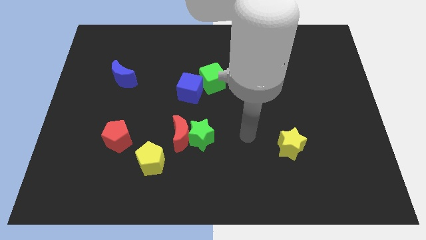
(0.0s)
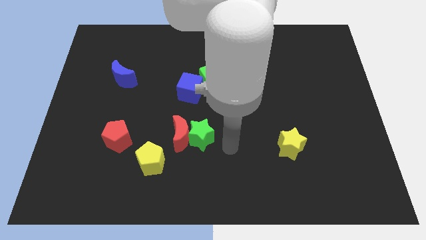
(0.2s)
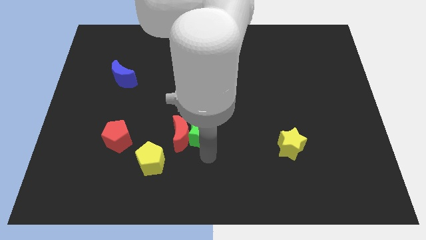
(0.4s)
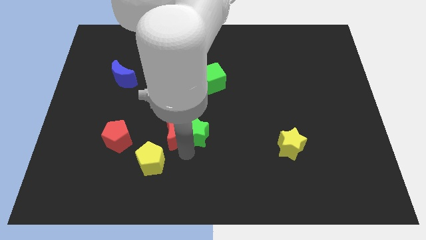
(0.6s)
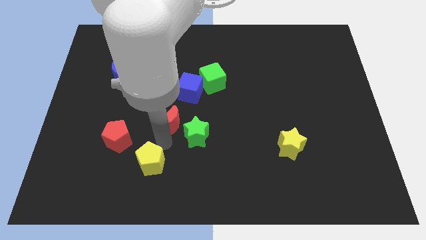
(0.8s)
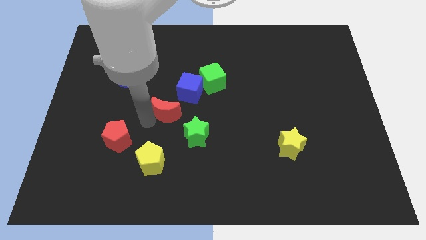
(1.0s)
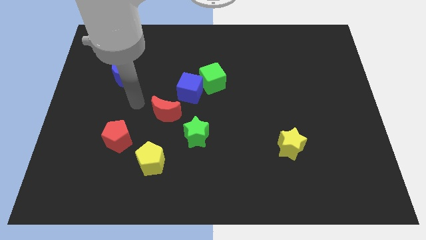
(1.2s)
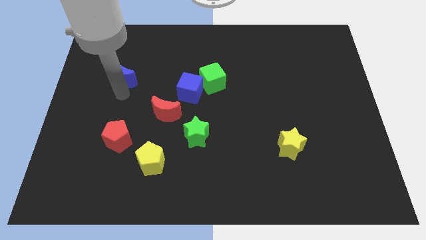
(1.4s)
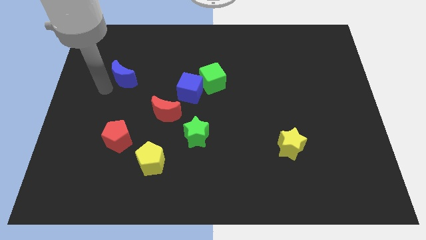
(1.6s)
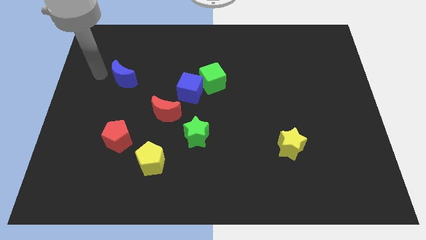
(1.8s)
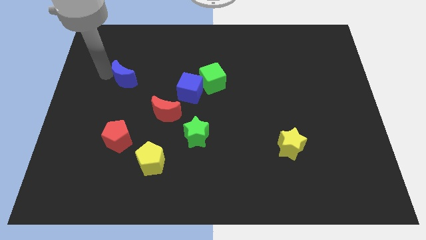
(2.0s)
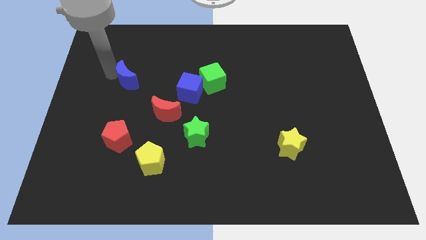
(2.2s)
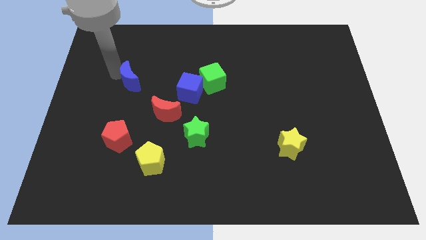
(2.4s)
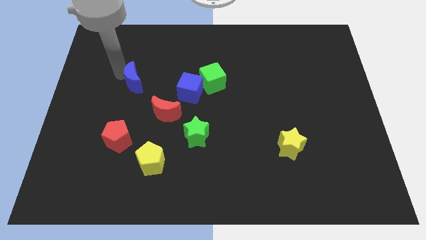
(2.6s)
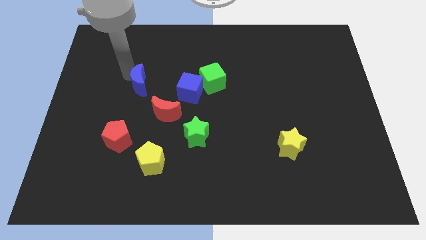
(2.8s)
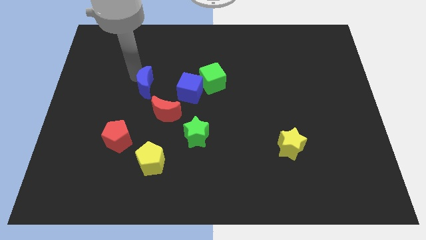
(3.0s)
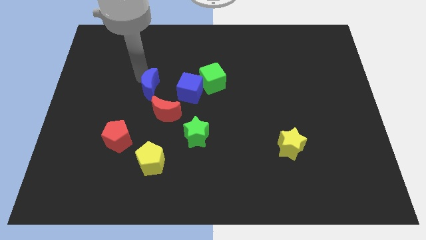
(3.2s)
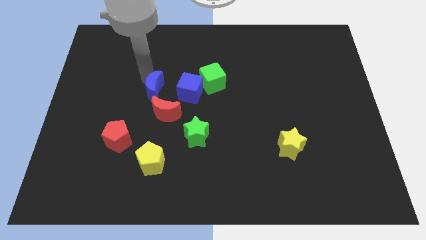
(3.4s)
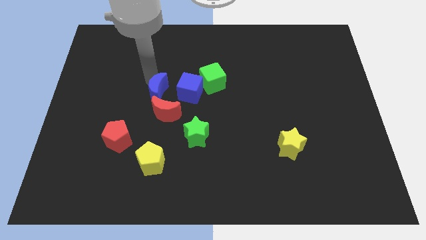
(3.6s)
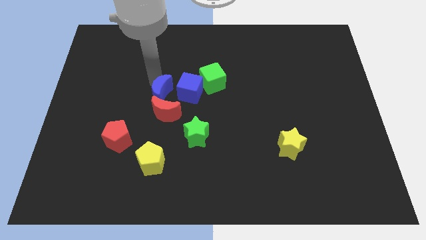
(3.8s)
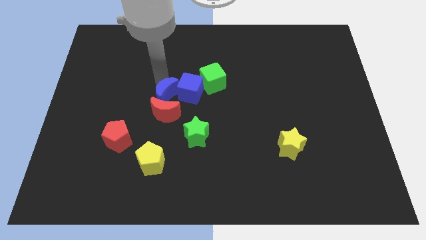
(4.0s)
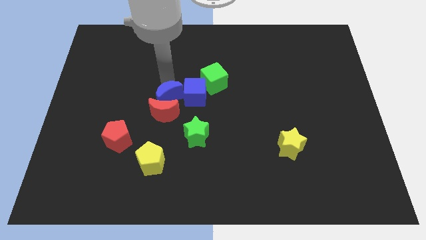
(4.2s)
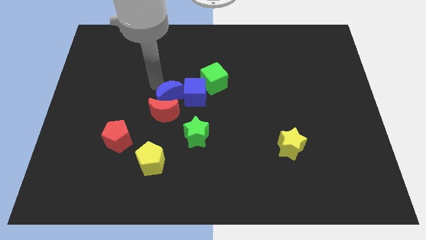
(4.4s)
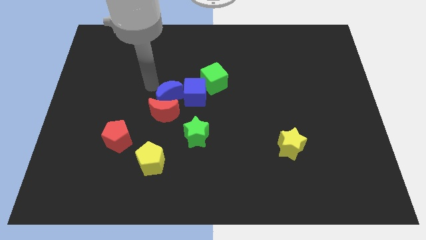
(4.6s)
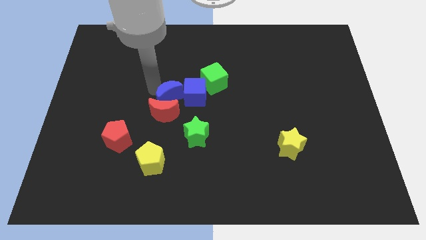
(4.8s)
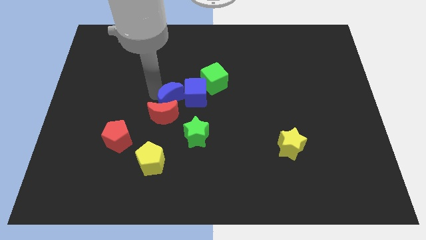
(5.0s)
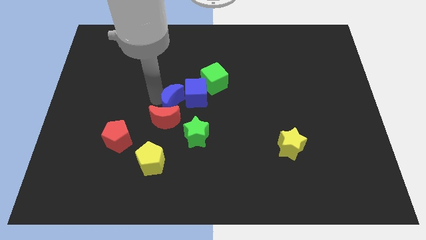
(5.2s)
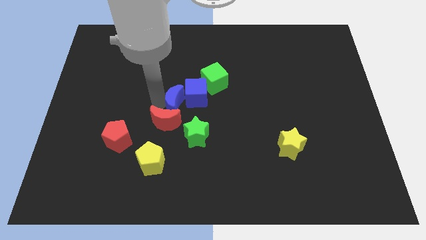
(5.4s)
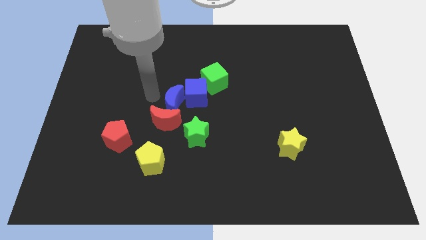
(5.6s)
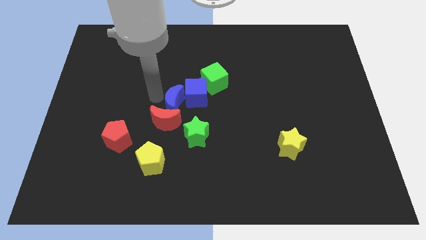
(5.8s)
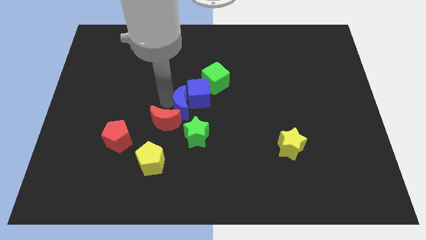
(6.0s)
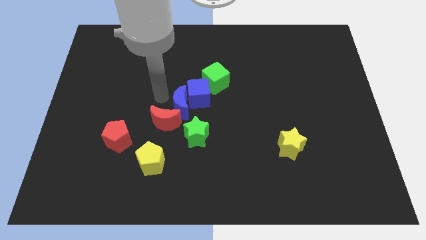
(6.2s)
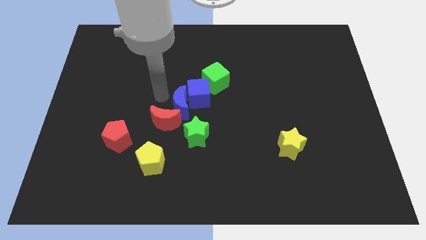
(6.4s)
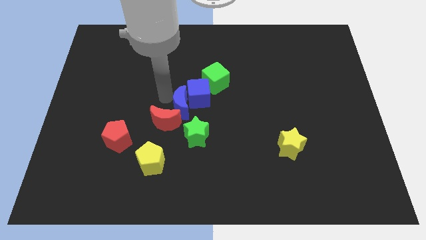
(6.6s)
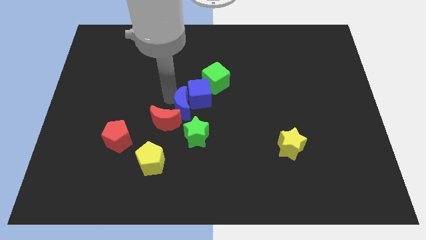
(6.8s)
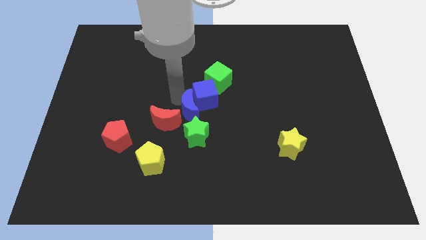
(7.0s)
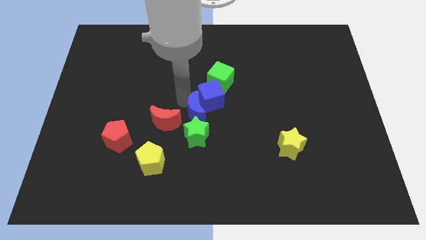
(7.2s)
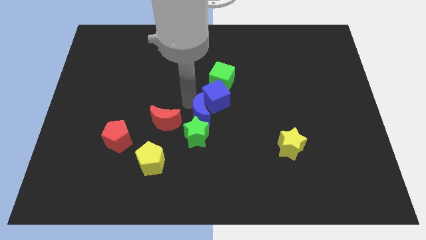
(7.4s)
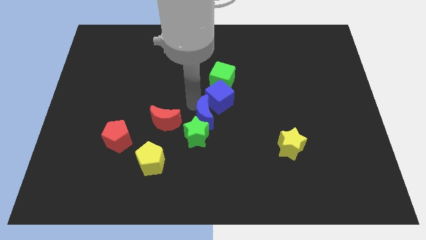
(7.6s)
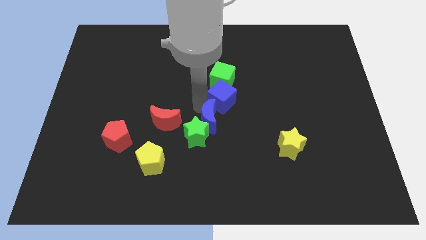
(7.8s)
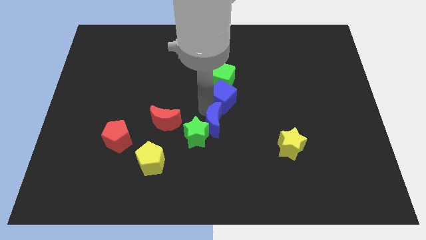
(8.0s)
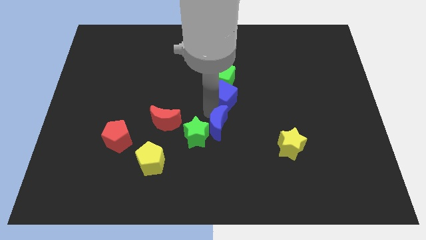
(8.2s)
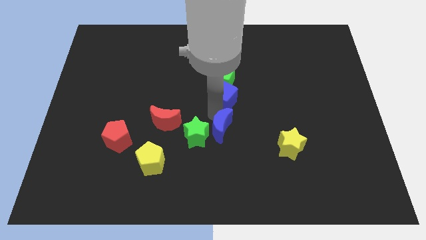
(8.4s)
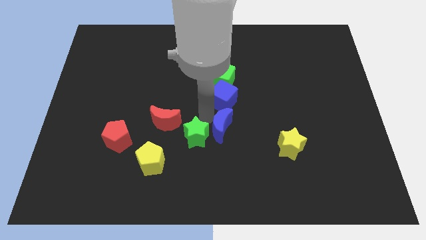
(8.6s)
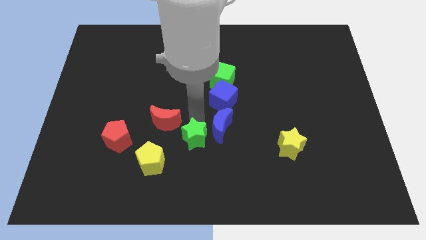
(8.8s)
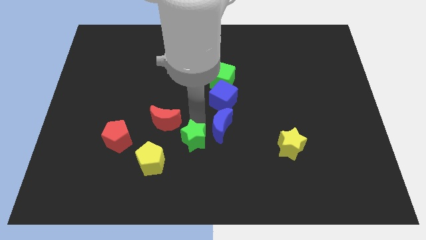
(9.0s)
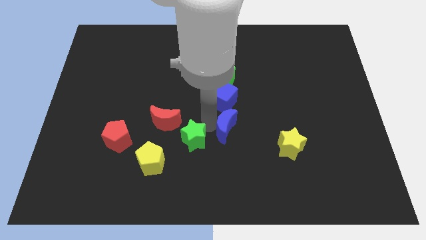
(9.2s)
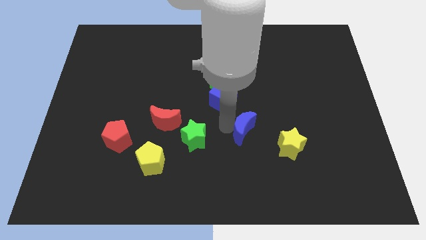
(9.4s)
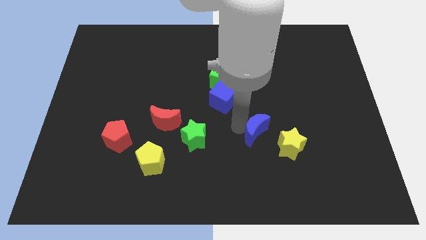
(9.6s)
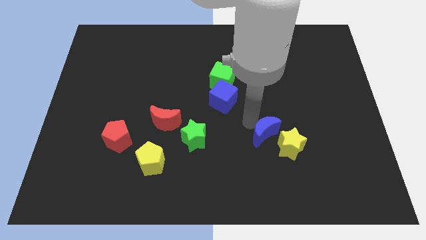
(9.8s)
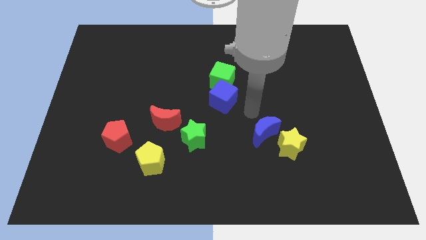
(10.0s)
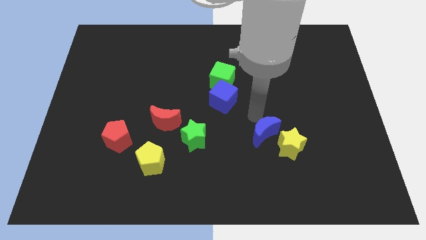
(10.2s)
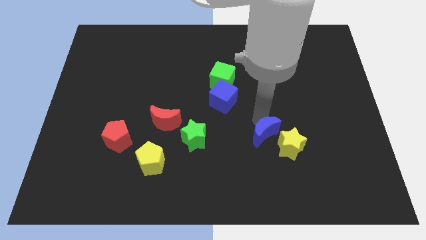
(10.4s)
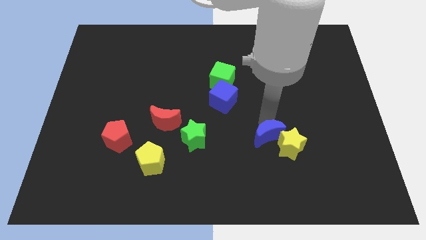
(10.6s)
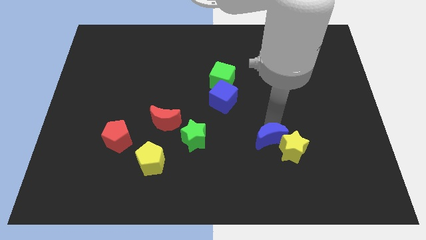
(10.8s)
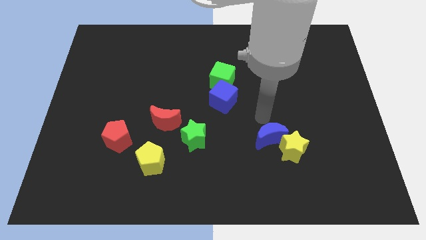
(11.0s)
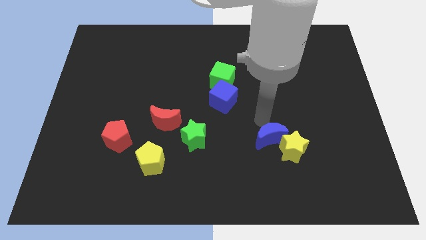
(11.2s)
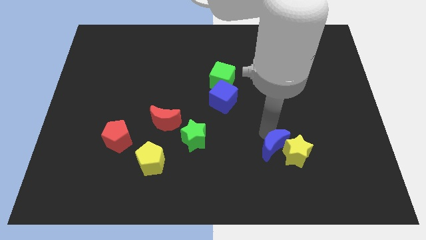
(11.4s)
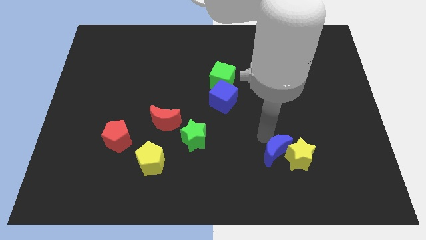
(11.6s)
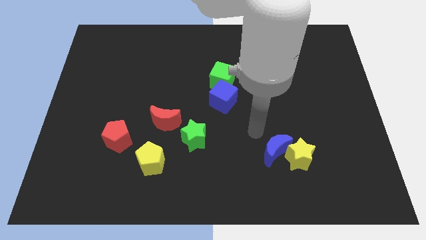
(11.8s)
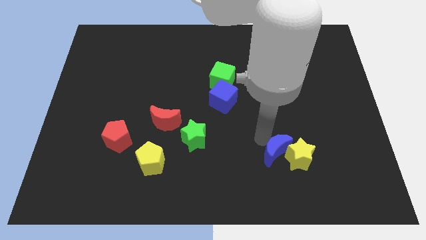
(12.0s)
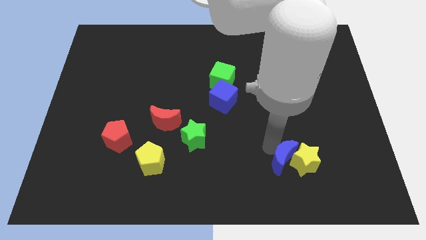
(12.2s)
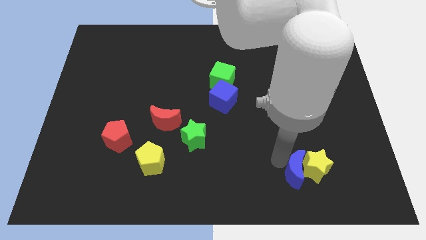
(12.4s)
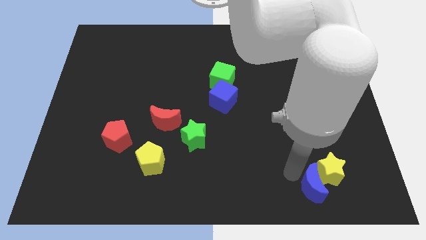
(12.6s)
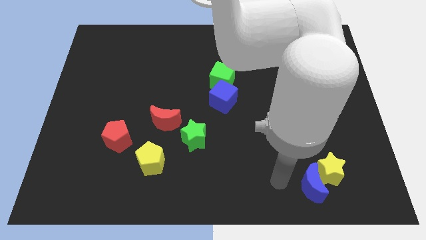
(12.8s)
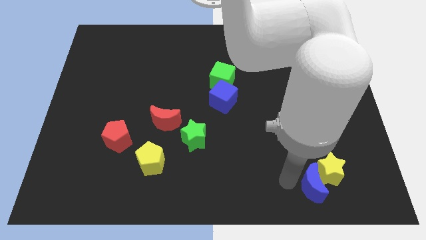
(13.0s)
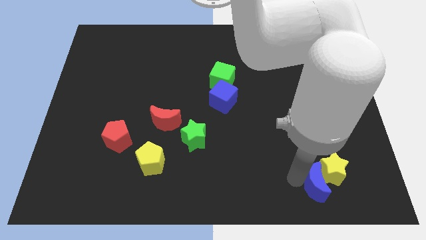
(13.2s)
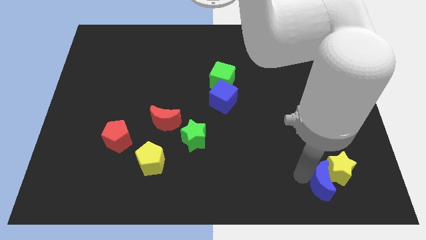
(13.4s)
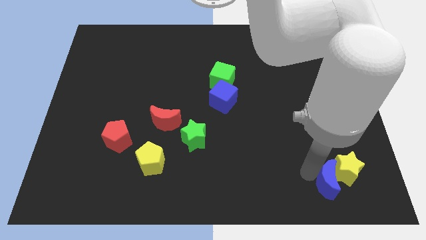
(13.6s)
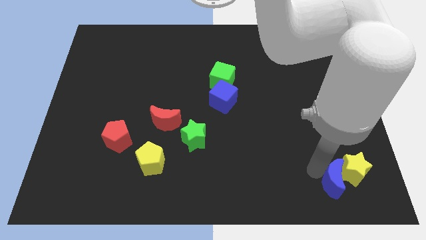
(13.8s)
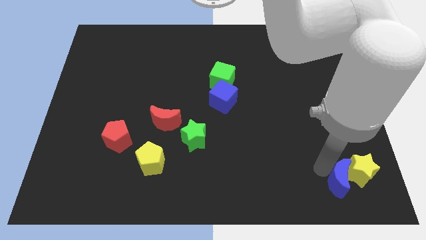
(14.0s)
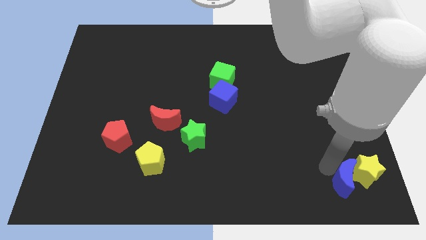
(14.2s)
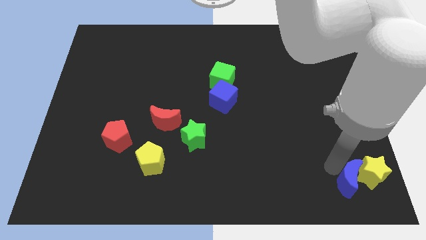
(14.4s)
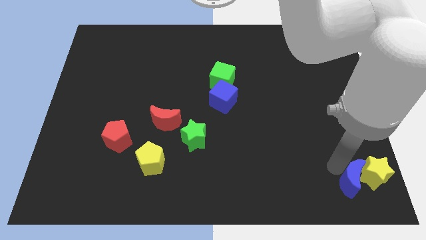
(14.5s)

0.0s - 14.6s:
move the blue moon to the lower right corner
